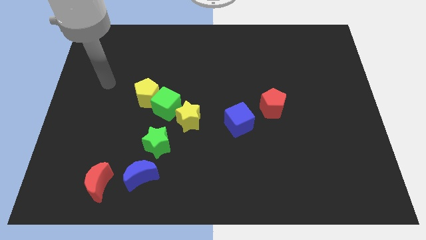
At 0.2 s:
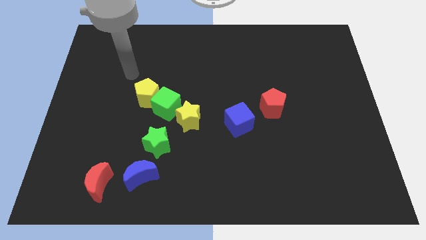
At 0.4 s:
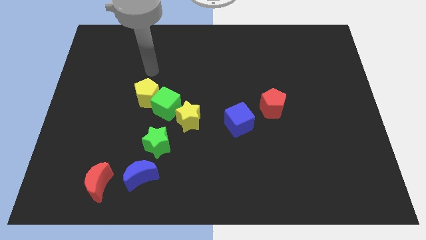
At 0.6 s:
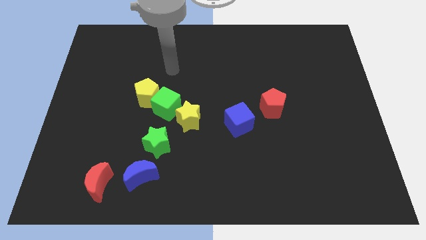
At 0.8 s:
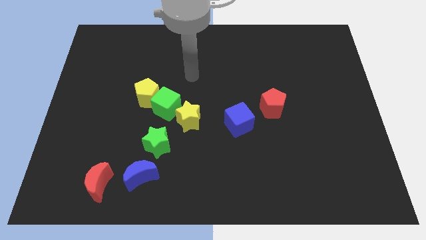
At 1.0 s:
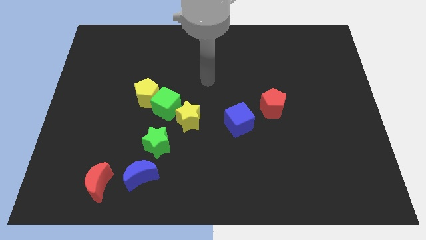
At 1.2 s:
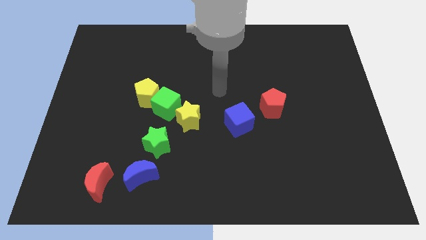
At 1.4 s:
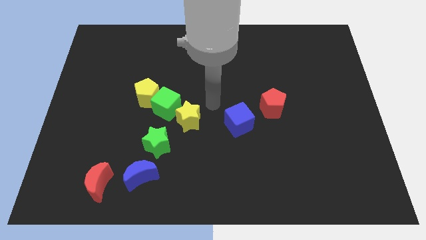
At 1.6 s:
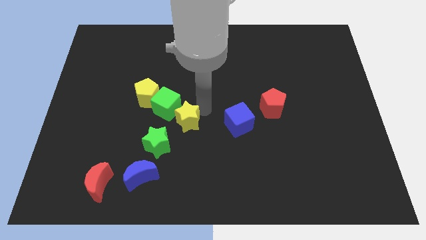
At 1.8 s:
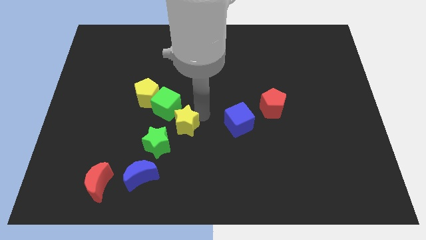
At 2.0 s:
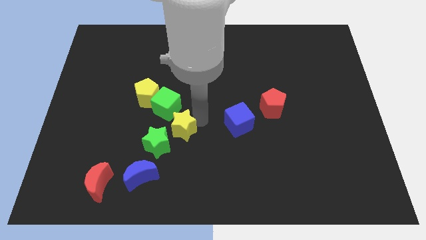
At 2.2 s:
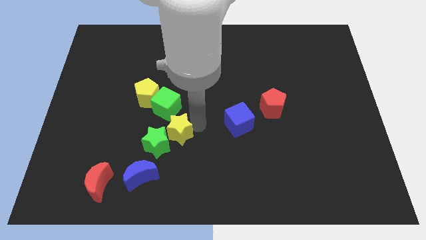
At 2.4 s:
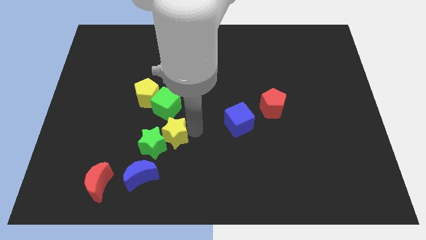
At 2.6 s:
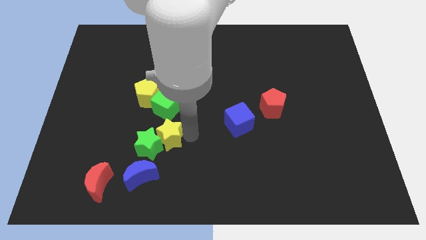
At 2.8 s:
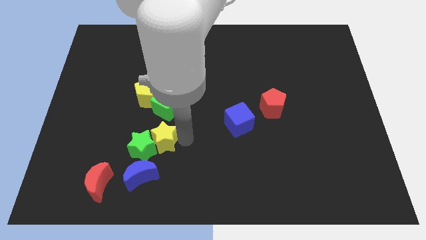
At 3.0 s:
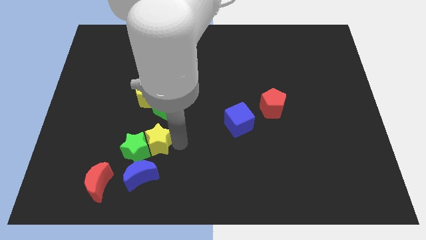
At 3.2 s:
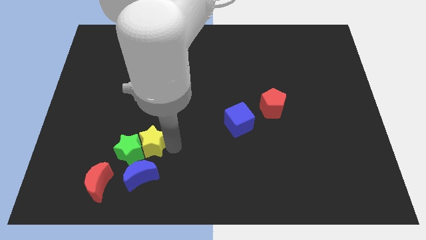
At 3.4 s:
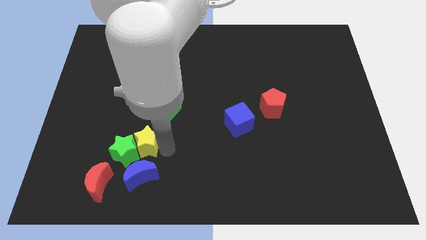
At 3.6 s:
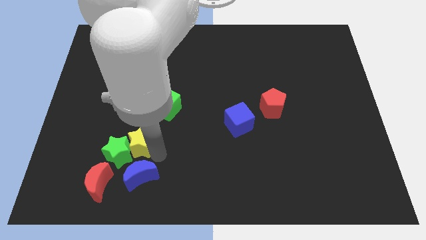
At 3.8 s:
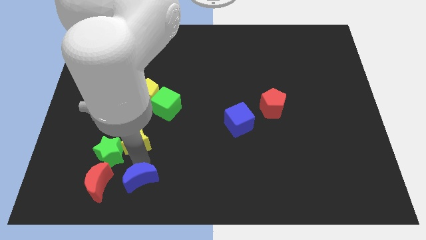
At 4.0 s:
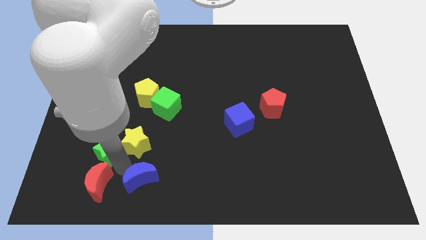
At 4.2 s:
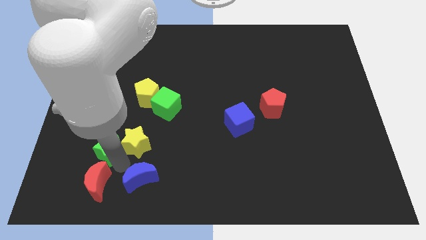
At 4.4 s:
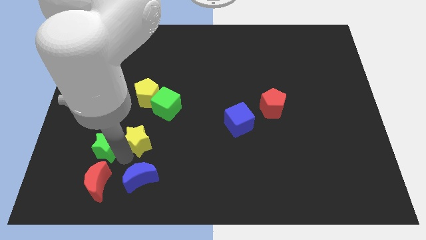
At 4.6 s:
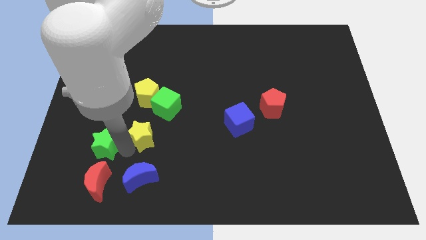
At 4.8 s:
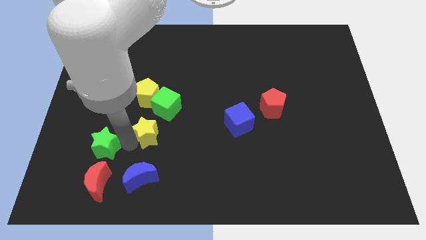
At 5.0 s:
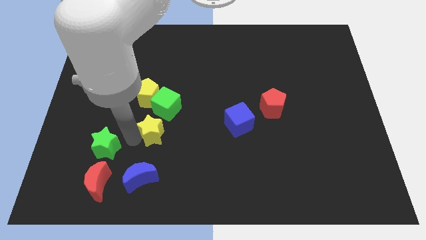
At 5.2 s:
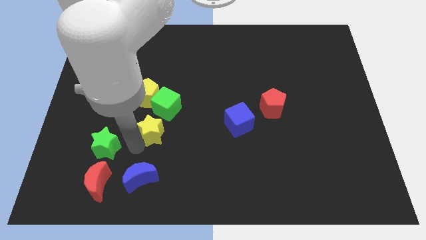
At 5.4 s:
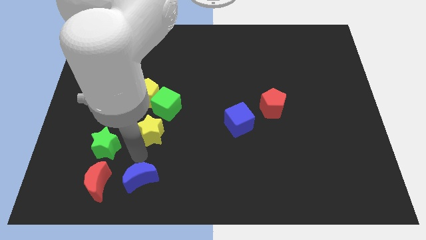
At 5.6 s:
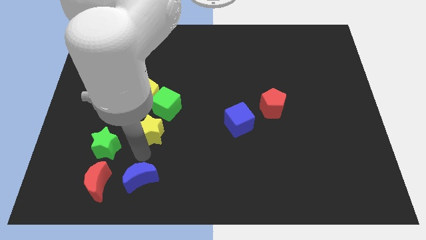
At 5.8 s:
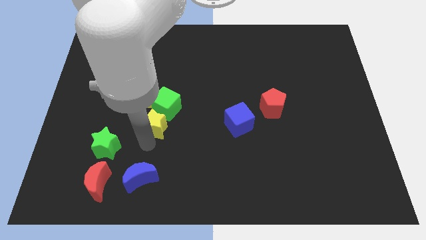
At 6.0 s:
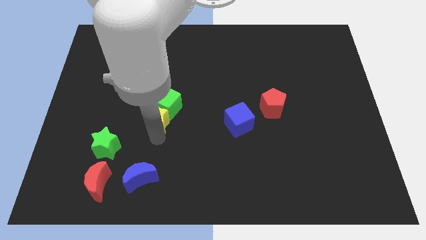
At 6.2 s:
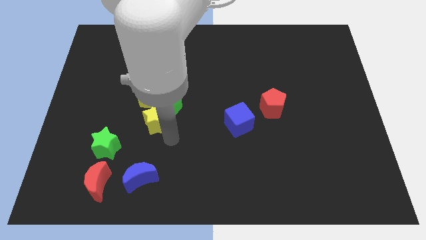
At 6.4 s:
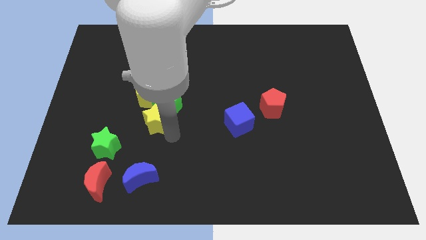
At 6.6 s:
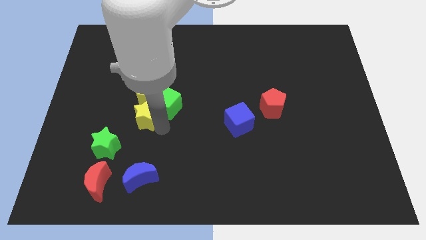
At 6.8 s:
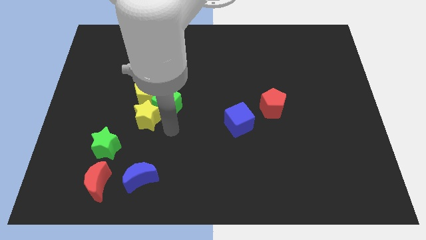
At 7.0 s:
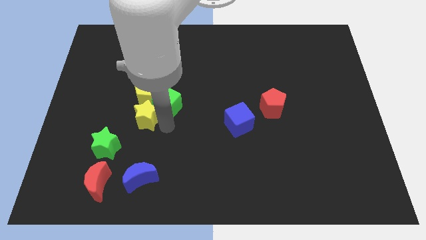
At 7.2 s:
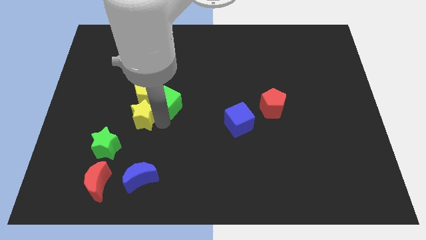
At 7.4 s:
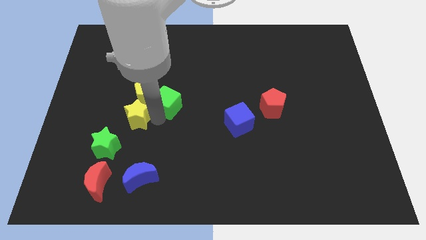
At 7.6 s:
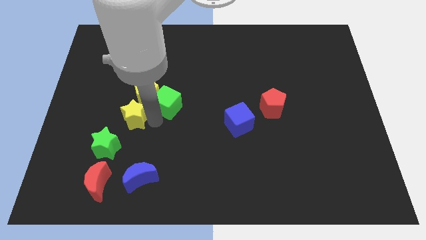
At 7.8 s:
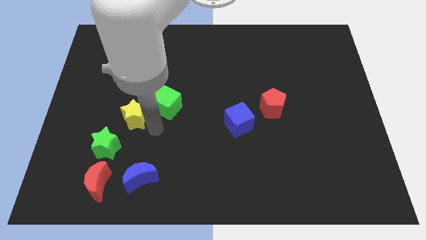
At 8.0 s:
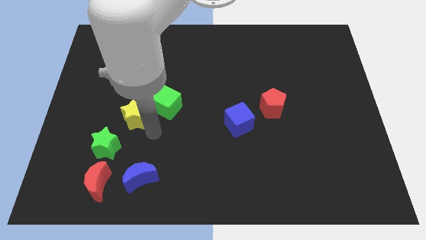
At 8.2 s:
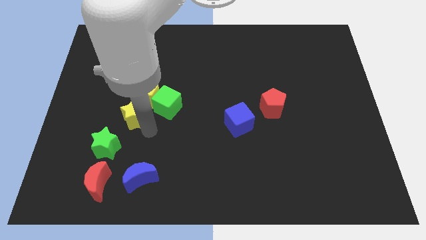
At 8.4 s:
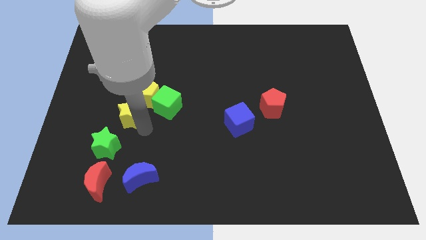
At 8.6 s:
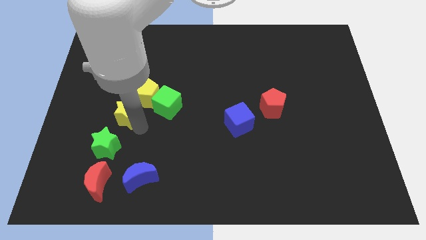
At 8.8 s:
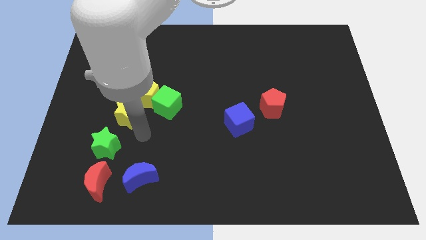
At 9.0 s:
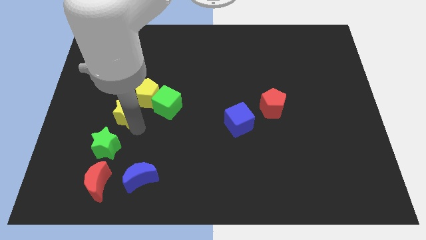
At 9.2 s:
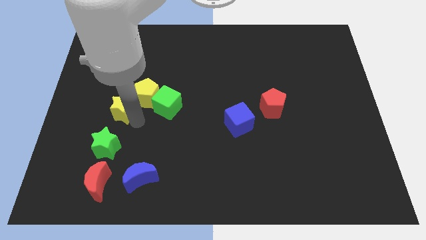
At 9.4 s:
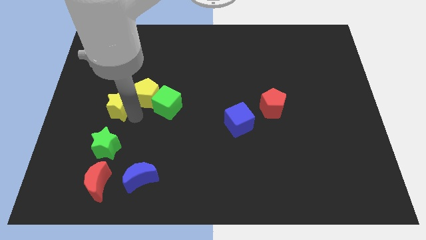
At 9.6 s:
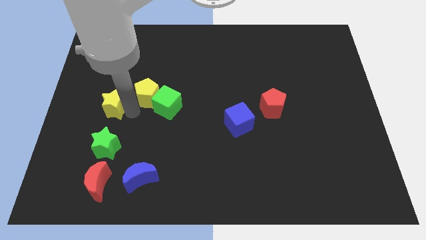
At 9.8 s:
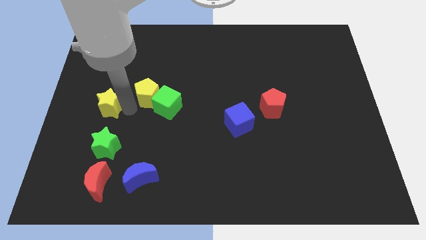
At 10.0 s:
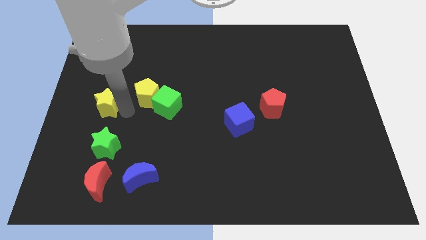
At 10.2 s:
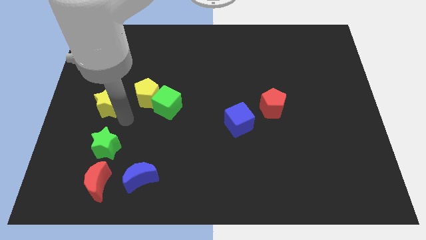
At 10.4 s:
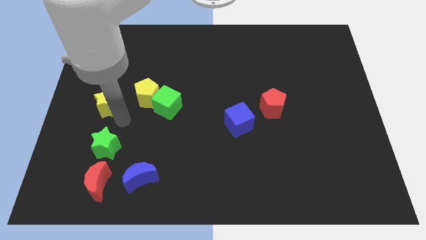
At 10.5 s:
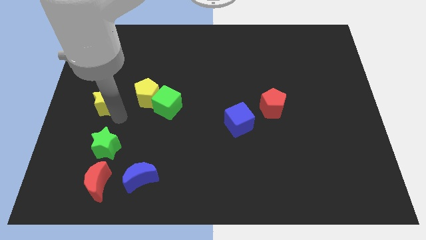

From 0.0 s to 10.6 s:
move the yellow star to the left side of the board

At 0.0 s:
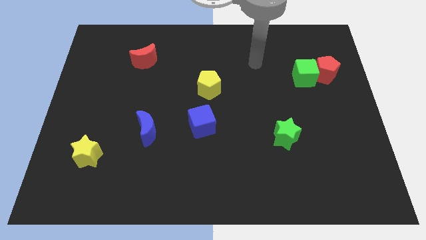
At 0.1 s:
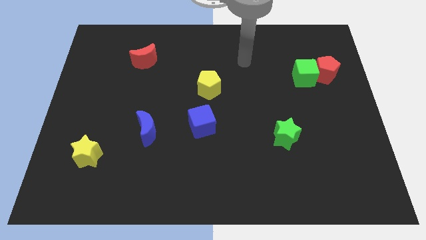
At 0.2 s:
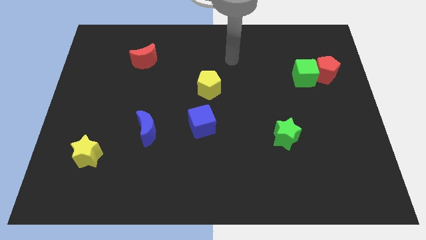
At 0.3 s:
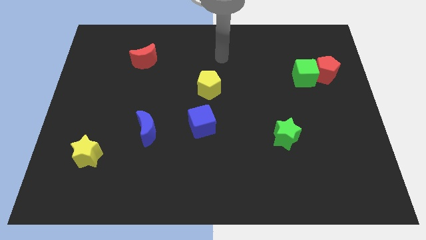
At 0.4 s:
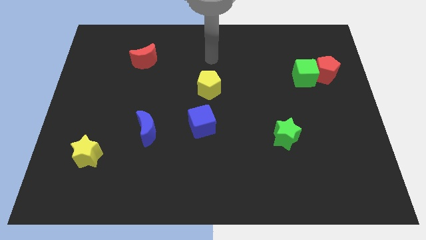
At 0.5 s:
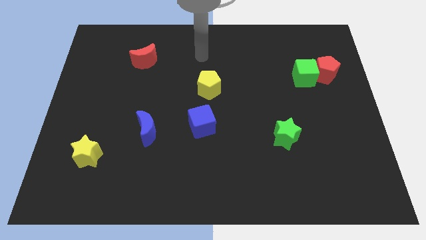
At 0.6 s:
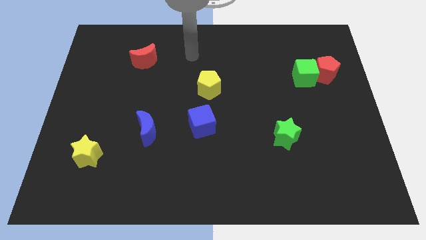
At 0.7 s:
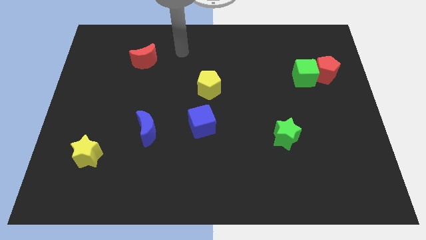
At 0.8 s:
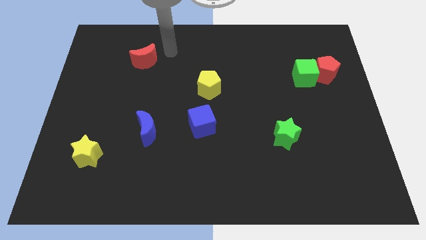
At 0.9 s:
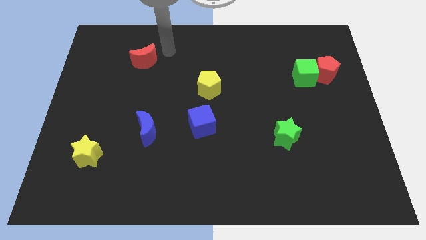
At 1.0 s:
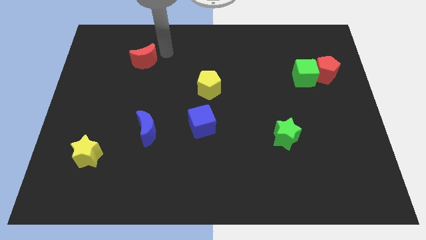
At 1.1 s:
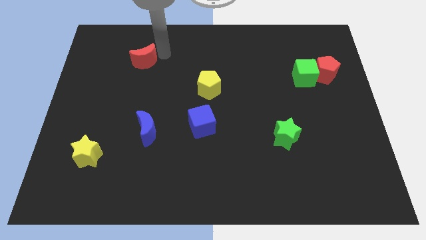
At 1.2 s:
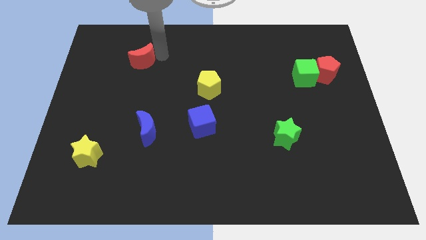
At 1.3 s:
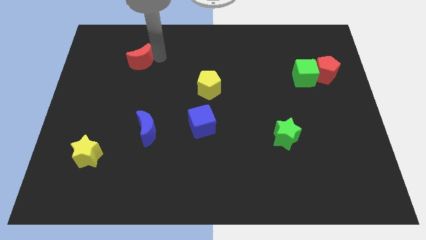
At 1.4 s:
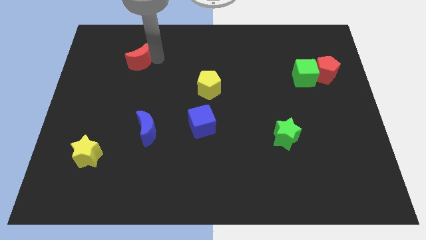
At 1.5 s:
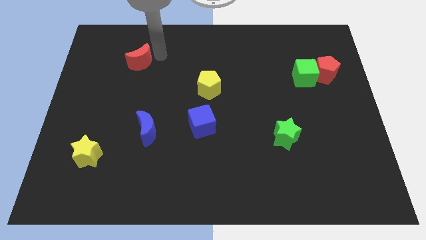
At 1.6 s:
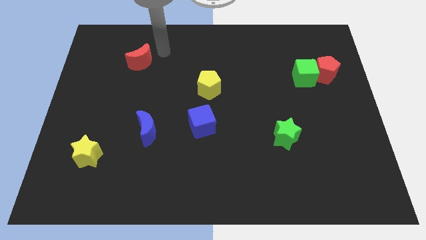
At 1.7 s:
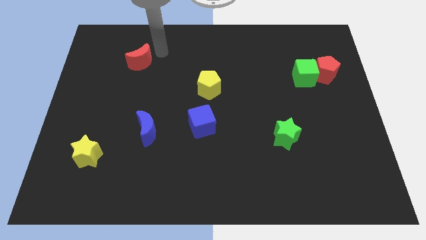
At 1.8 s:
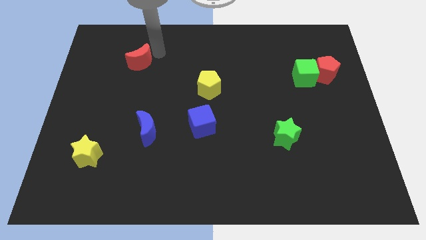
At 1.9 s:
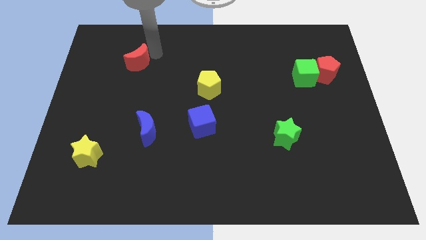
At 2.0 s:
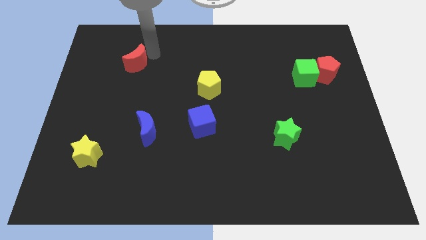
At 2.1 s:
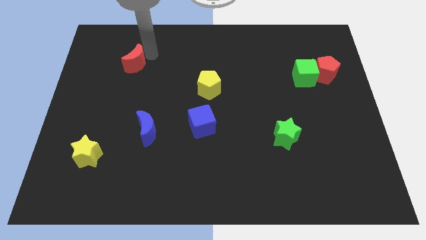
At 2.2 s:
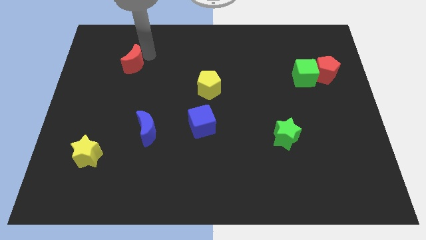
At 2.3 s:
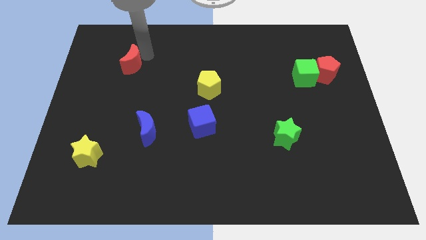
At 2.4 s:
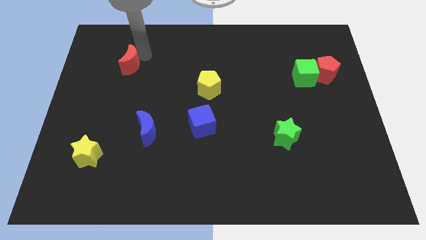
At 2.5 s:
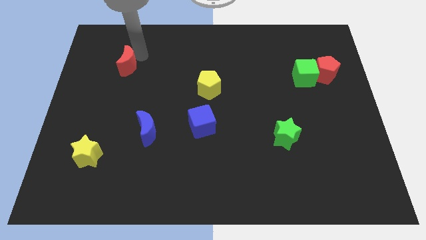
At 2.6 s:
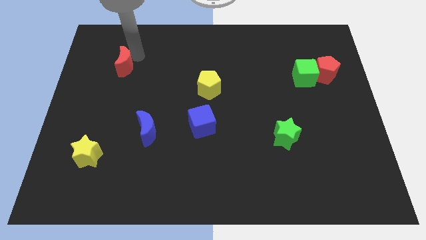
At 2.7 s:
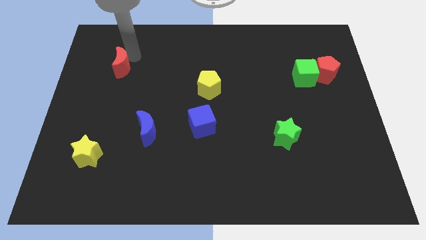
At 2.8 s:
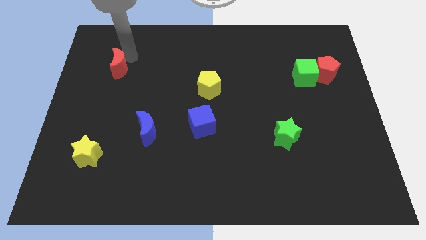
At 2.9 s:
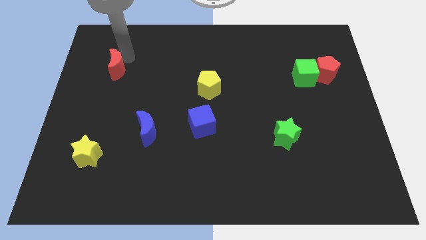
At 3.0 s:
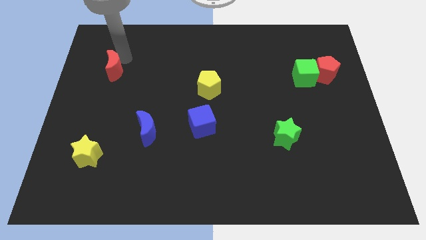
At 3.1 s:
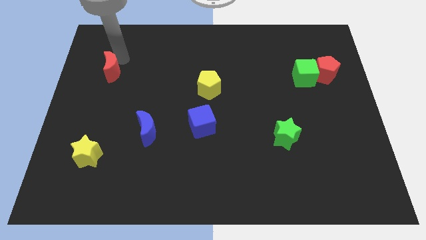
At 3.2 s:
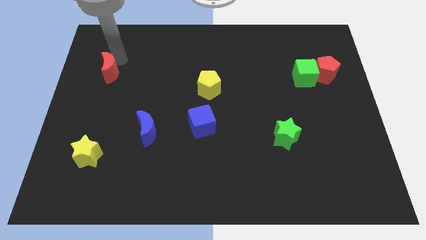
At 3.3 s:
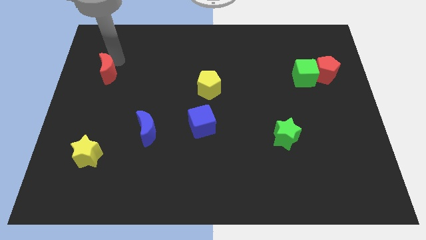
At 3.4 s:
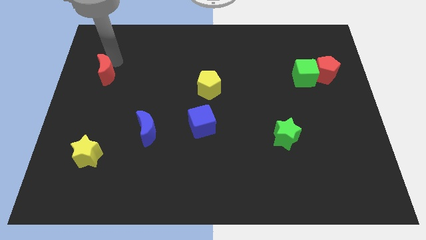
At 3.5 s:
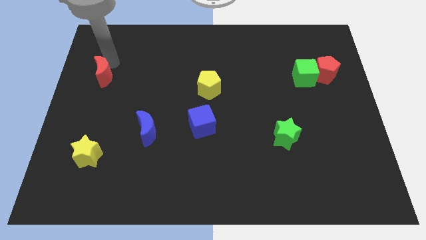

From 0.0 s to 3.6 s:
put the red moon to the left side of the board
